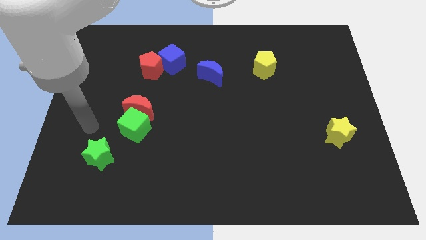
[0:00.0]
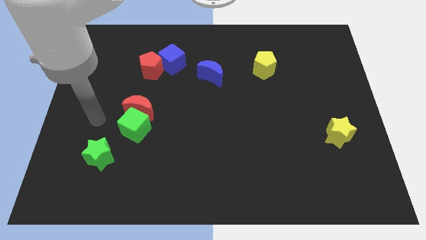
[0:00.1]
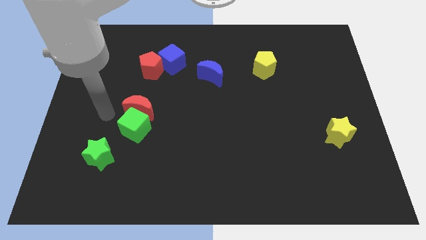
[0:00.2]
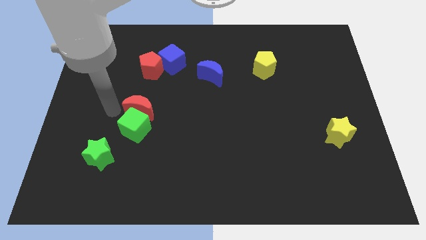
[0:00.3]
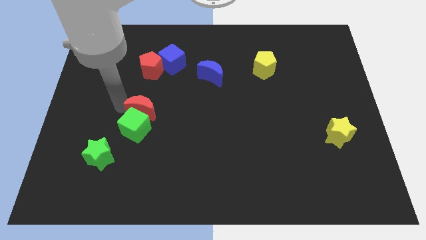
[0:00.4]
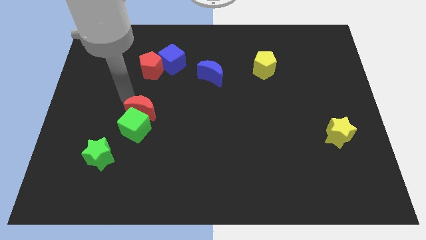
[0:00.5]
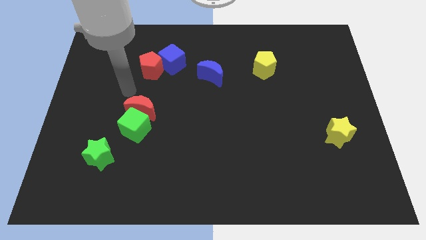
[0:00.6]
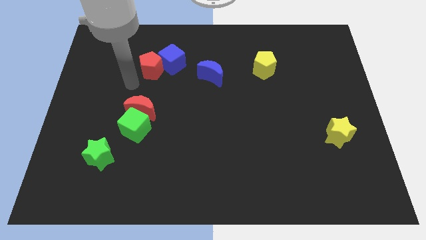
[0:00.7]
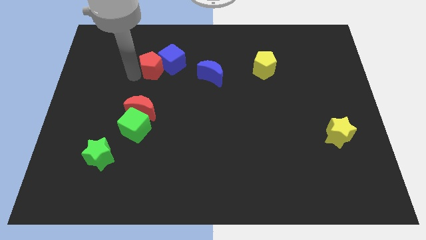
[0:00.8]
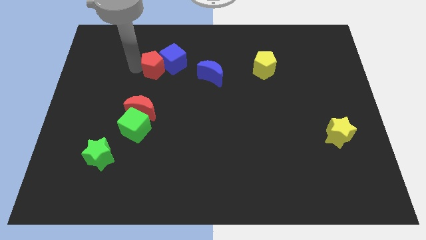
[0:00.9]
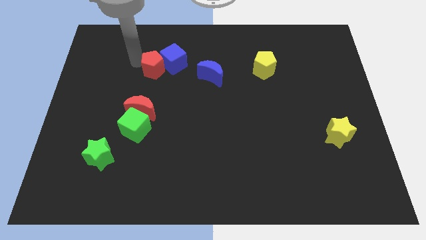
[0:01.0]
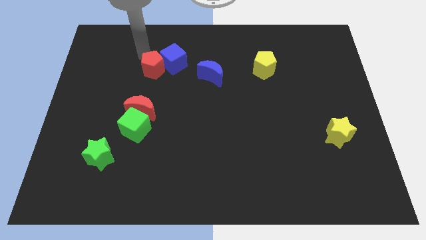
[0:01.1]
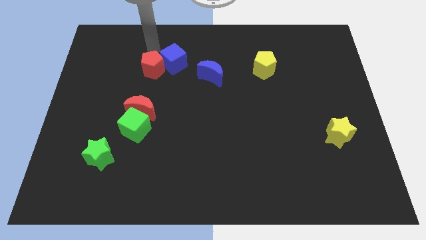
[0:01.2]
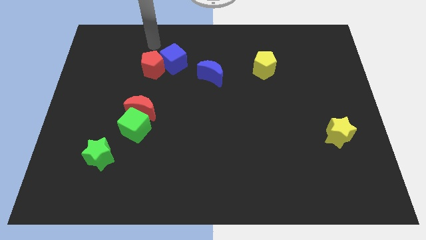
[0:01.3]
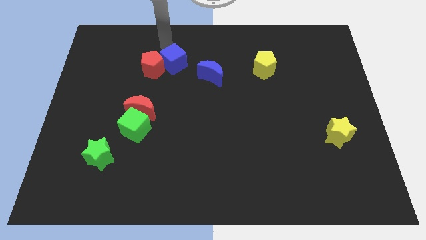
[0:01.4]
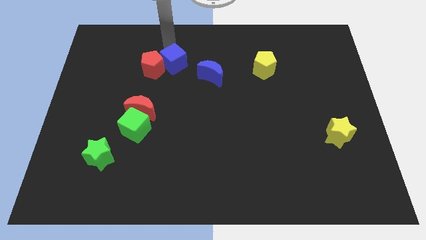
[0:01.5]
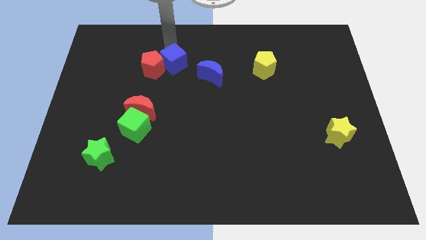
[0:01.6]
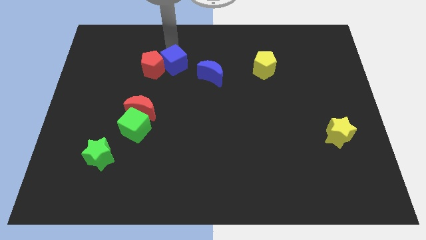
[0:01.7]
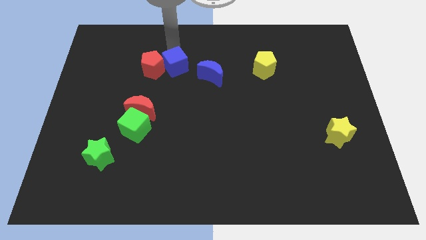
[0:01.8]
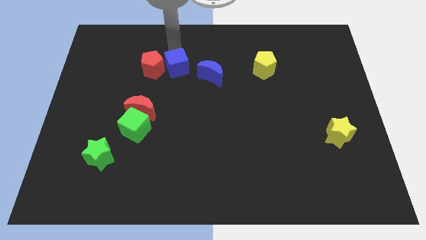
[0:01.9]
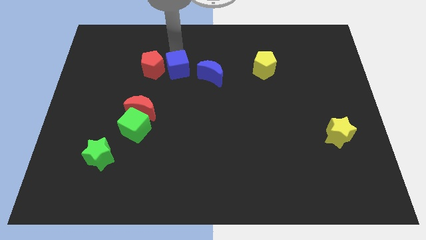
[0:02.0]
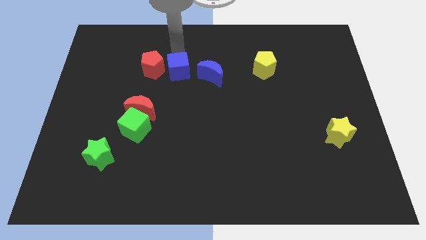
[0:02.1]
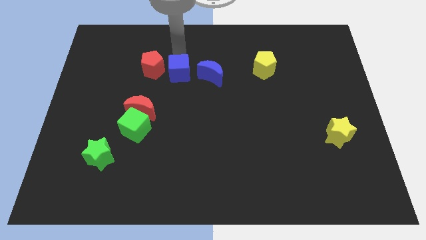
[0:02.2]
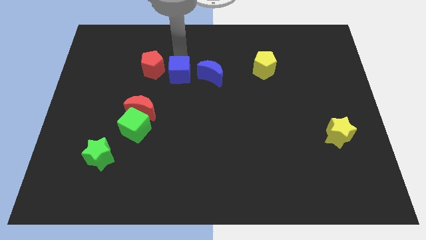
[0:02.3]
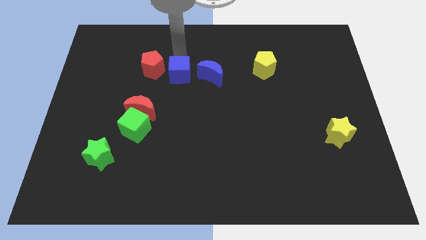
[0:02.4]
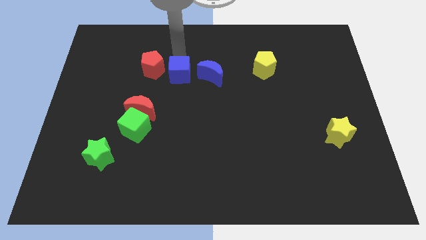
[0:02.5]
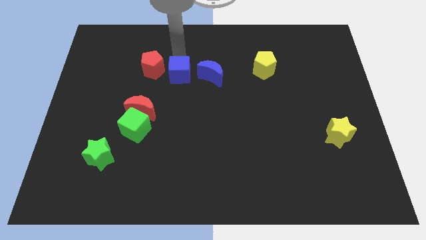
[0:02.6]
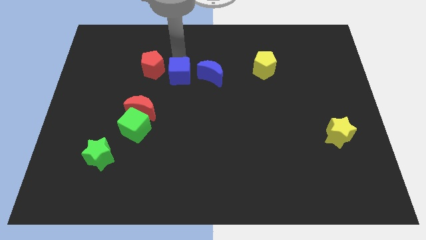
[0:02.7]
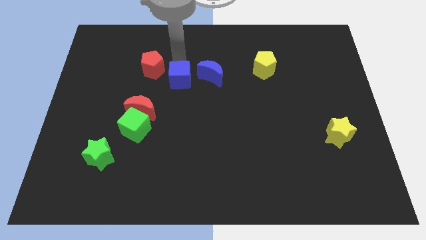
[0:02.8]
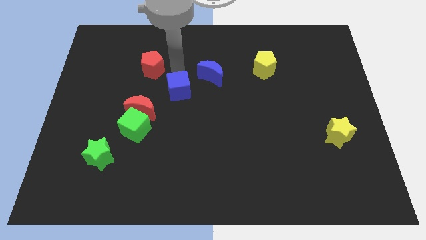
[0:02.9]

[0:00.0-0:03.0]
slightly slide the blue cube diagonally downwards and right

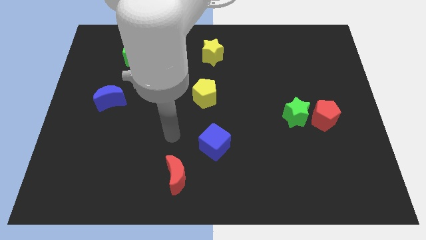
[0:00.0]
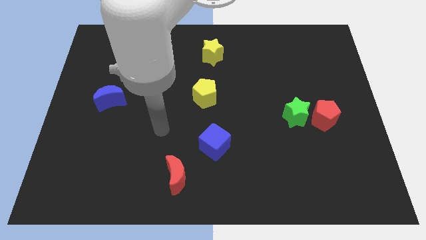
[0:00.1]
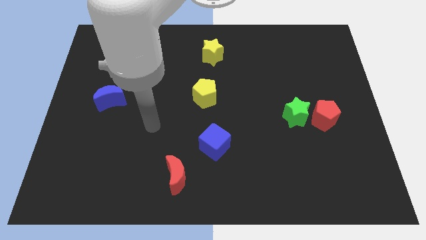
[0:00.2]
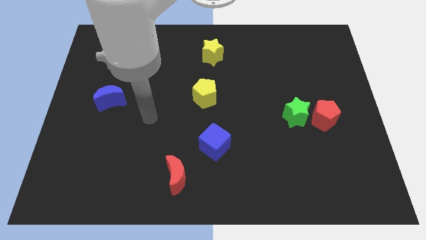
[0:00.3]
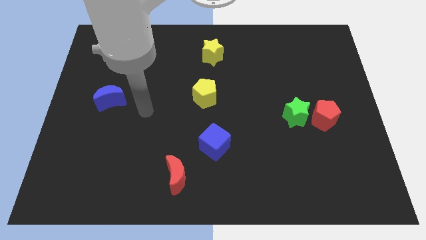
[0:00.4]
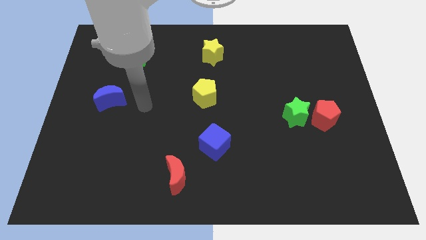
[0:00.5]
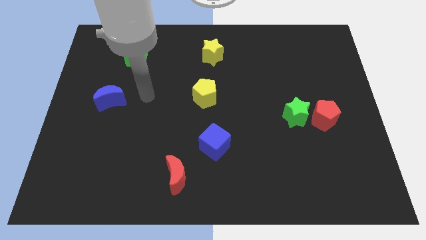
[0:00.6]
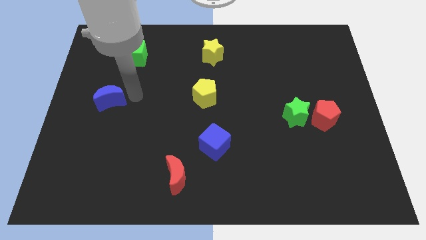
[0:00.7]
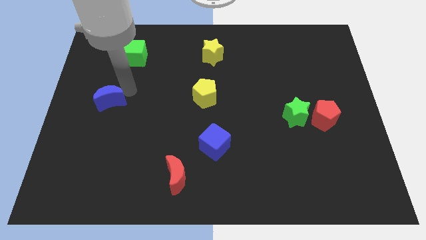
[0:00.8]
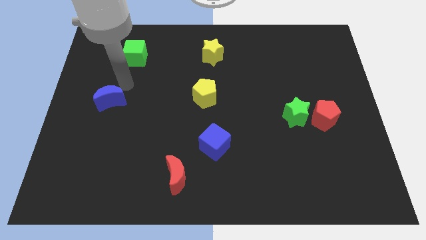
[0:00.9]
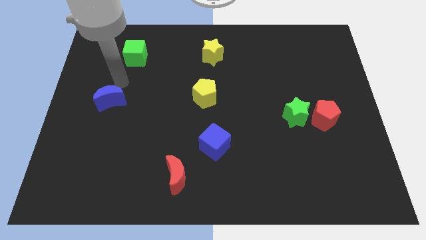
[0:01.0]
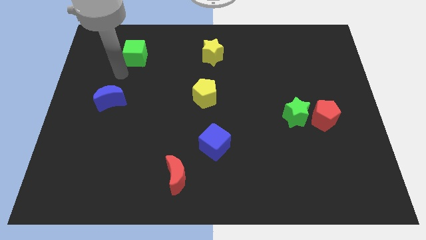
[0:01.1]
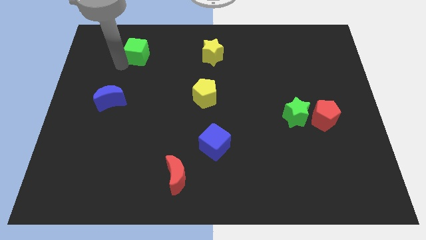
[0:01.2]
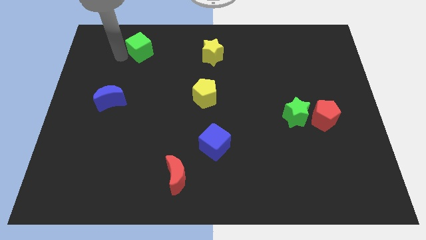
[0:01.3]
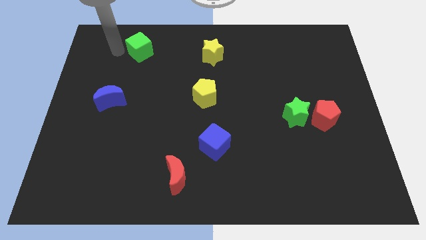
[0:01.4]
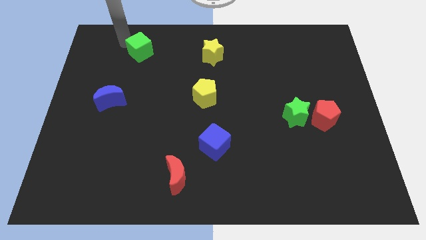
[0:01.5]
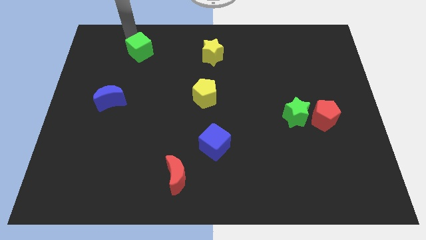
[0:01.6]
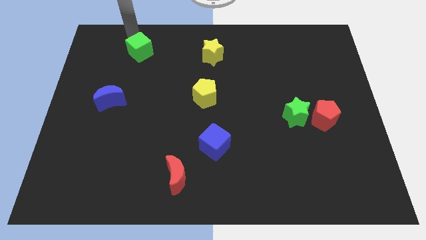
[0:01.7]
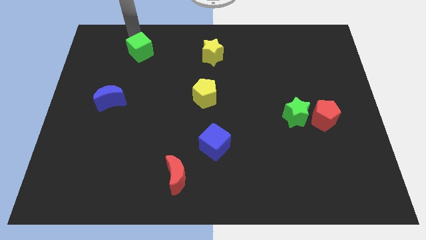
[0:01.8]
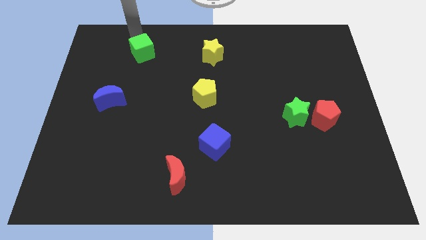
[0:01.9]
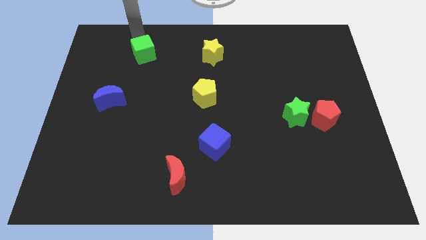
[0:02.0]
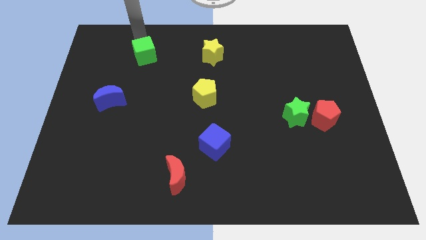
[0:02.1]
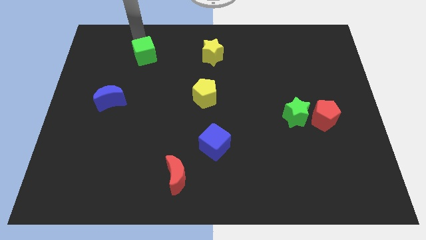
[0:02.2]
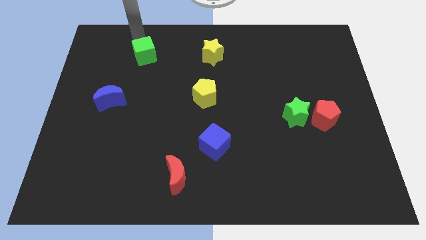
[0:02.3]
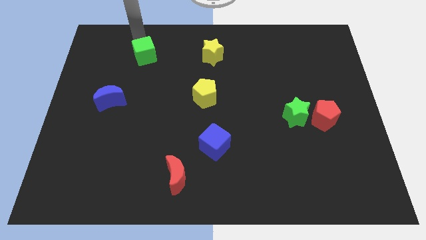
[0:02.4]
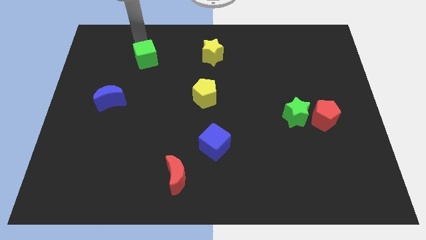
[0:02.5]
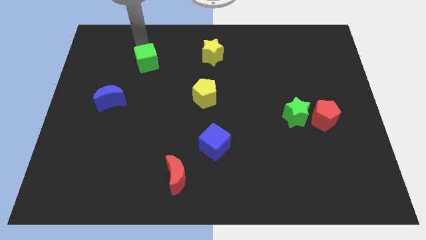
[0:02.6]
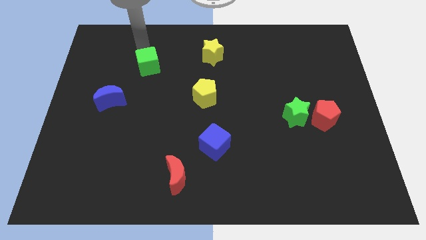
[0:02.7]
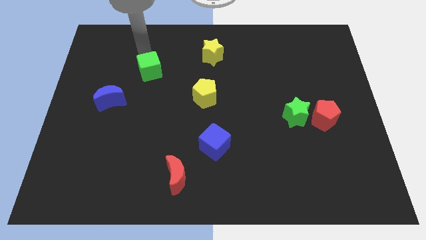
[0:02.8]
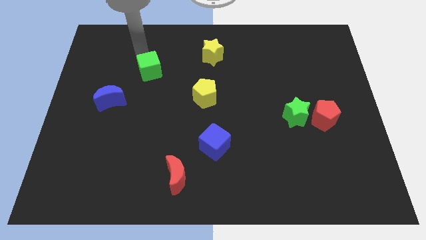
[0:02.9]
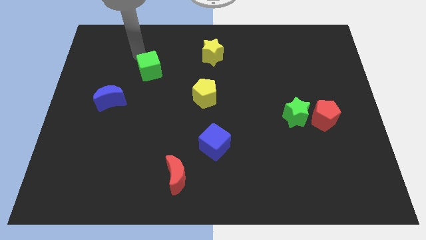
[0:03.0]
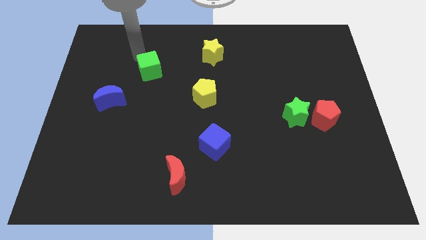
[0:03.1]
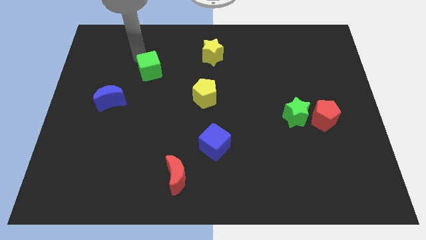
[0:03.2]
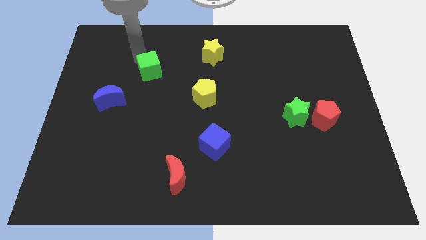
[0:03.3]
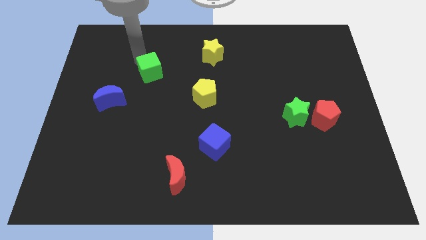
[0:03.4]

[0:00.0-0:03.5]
slide the green cube diagonally downwards and right slightly

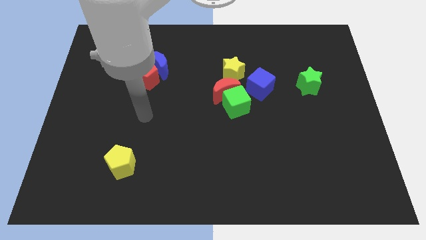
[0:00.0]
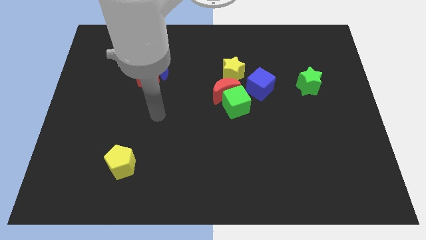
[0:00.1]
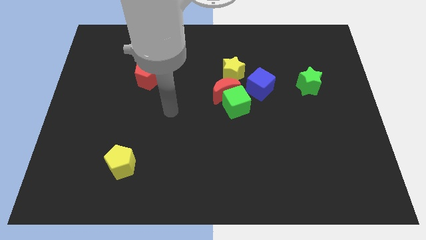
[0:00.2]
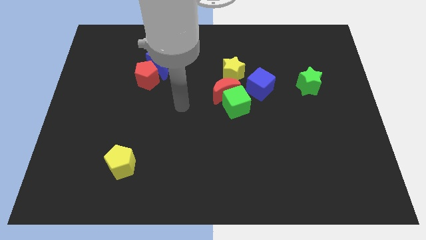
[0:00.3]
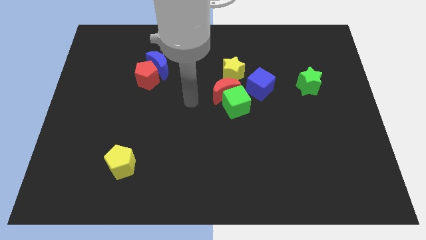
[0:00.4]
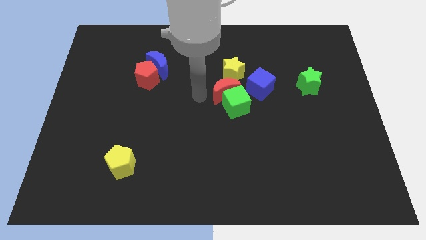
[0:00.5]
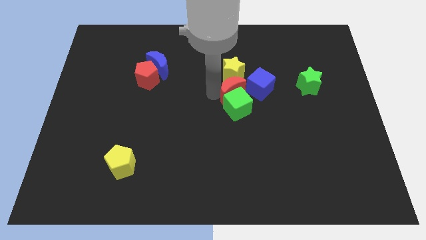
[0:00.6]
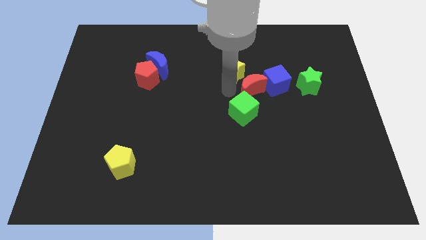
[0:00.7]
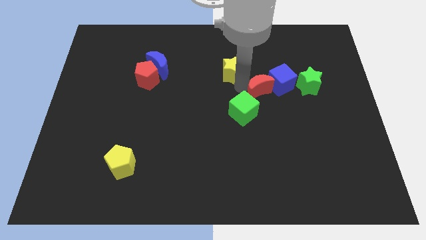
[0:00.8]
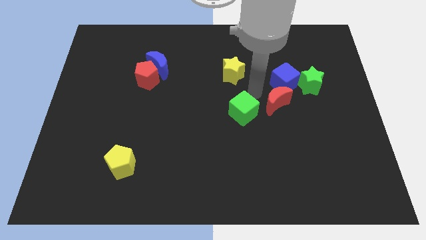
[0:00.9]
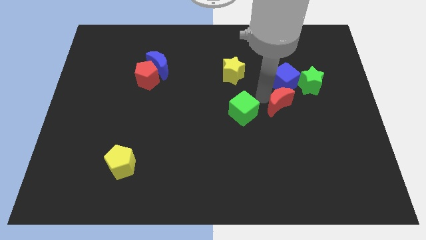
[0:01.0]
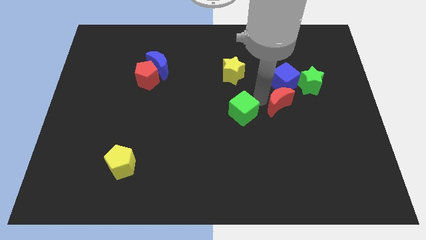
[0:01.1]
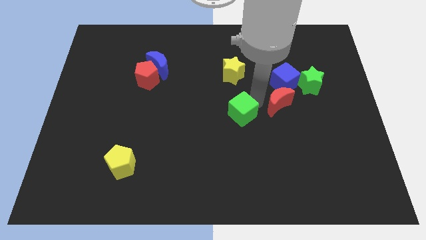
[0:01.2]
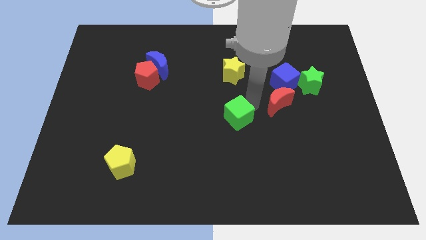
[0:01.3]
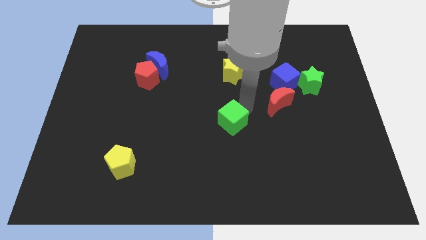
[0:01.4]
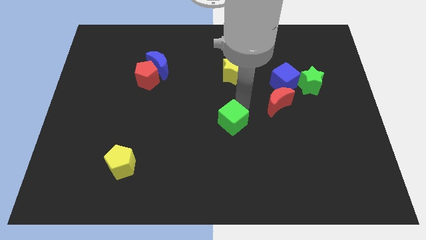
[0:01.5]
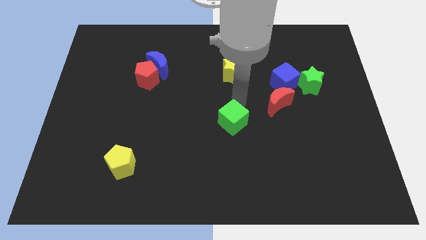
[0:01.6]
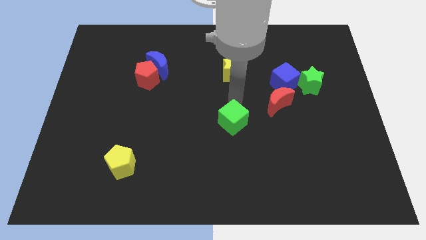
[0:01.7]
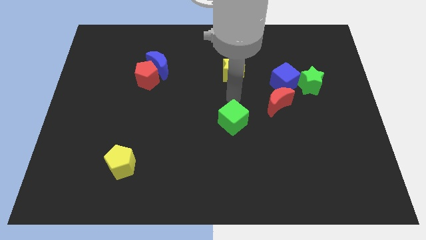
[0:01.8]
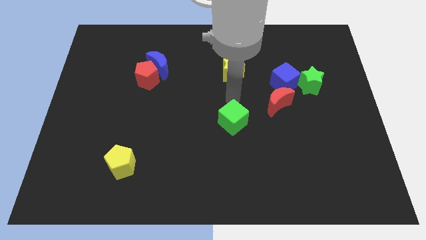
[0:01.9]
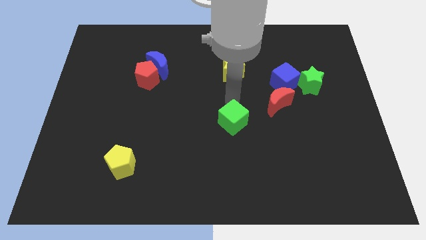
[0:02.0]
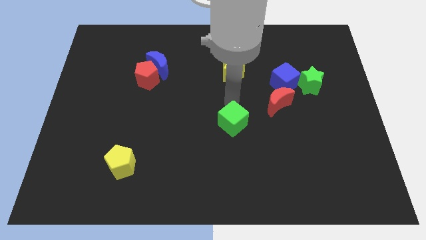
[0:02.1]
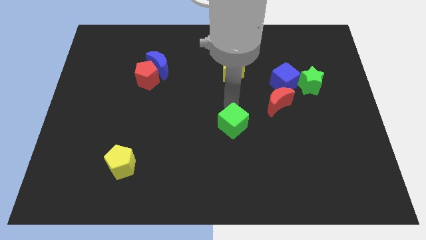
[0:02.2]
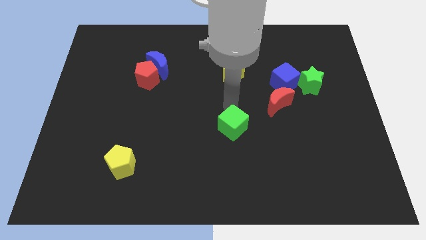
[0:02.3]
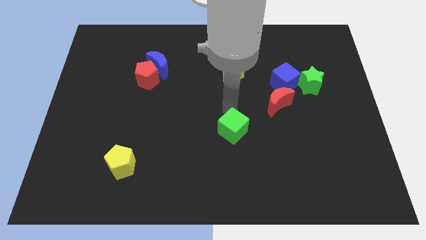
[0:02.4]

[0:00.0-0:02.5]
push the green cube down slightly
